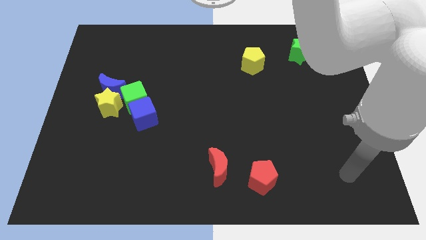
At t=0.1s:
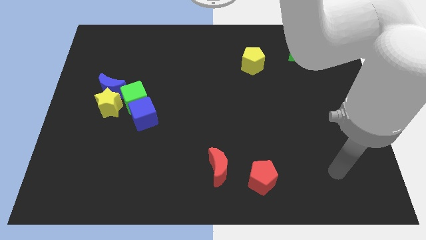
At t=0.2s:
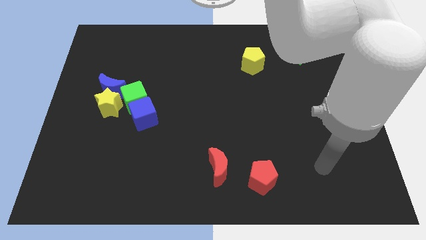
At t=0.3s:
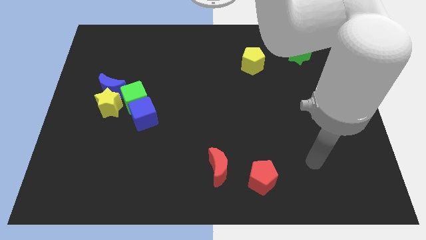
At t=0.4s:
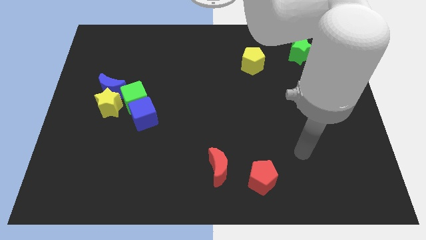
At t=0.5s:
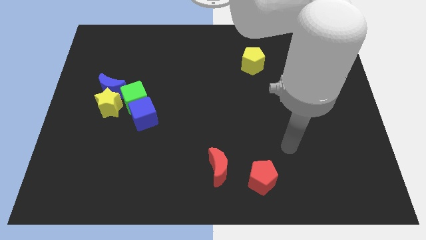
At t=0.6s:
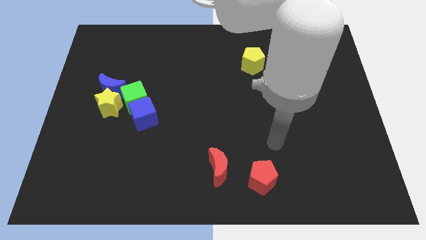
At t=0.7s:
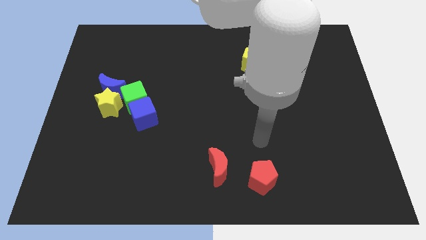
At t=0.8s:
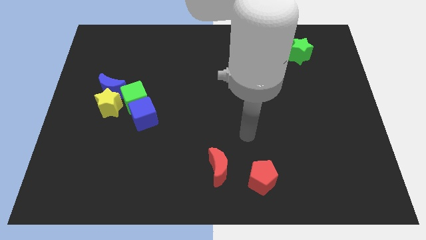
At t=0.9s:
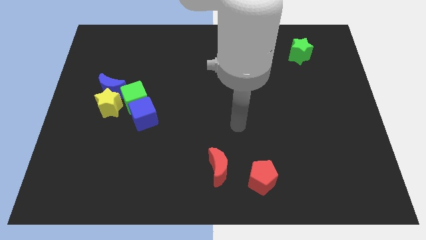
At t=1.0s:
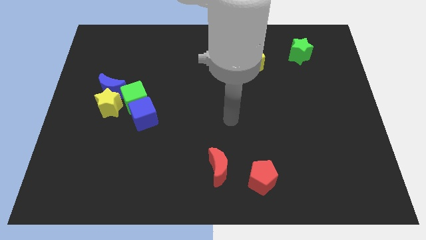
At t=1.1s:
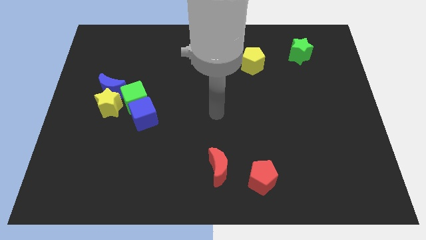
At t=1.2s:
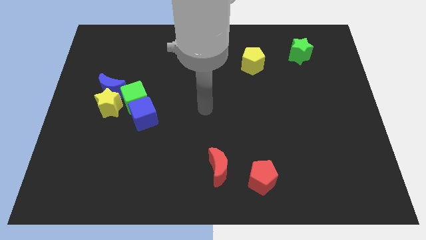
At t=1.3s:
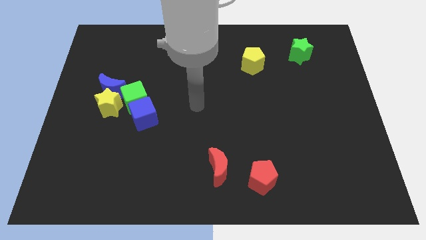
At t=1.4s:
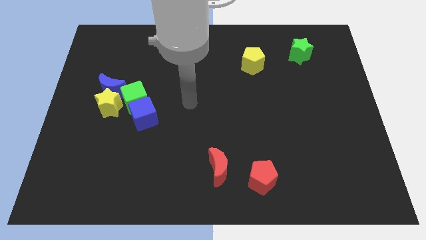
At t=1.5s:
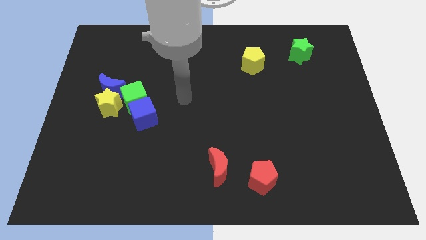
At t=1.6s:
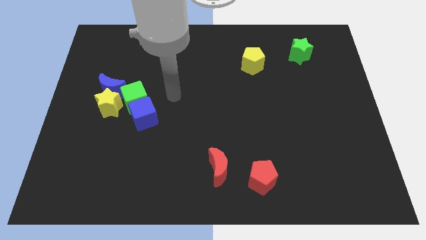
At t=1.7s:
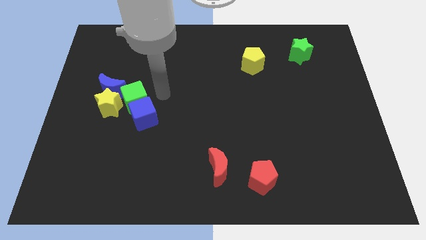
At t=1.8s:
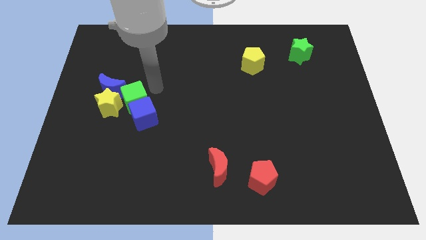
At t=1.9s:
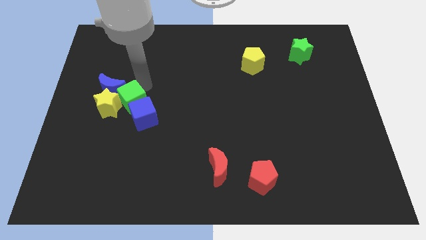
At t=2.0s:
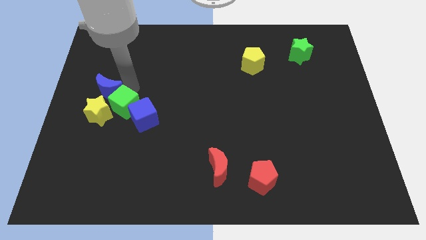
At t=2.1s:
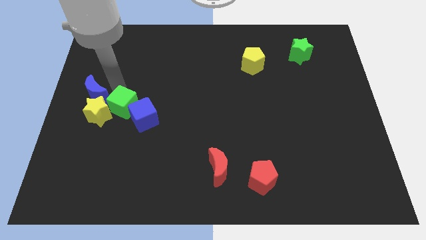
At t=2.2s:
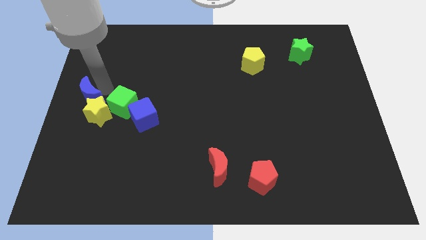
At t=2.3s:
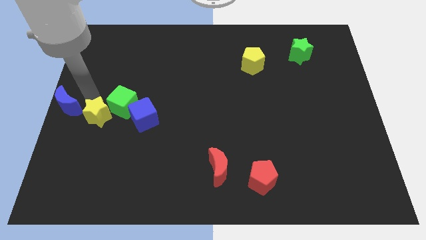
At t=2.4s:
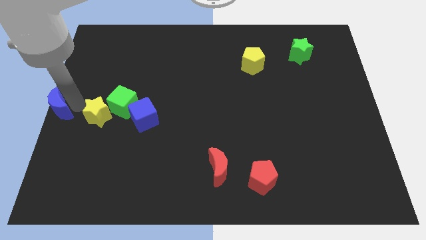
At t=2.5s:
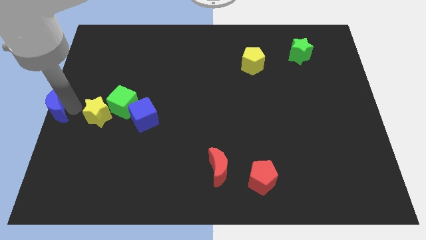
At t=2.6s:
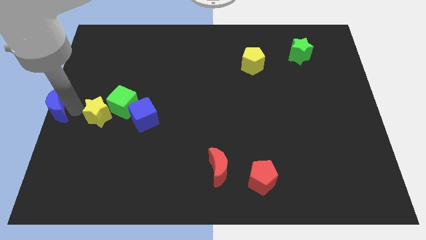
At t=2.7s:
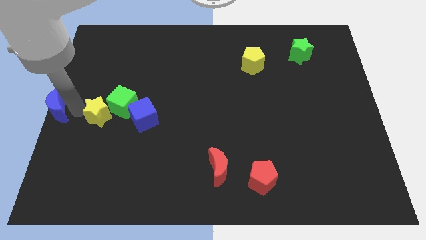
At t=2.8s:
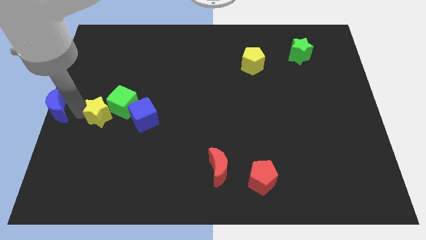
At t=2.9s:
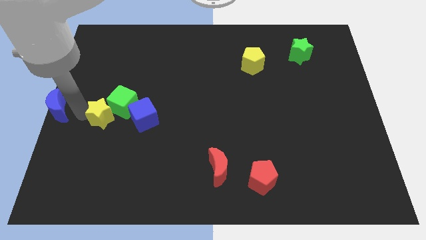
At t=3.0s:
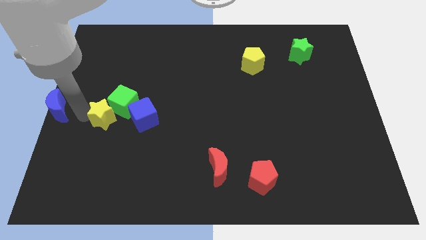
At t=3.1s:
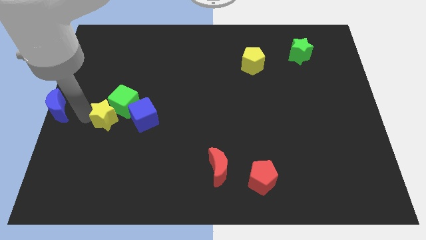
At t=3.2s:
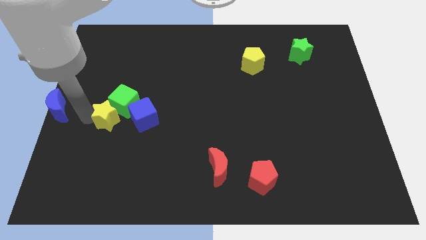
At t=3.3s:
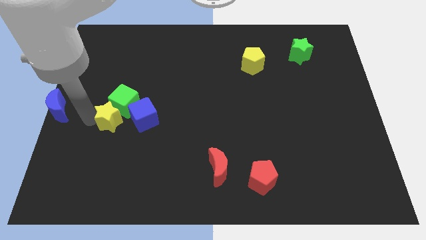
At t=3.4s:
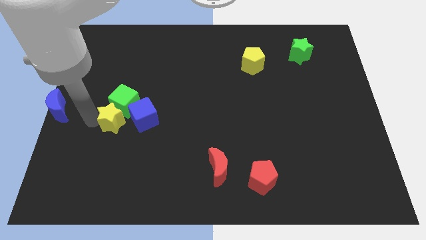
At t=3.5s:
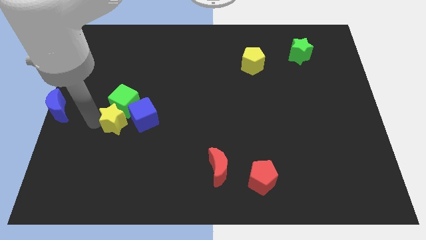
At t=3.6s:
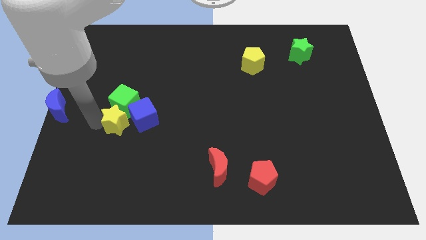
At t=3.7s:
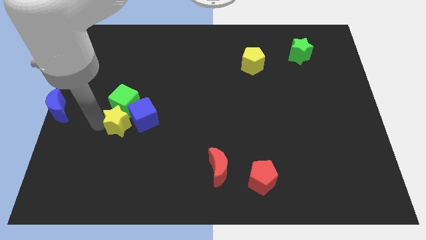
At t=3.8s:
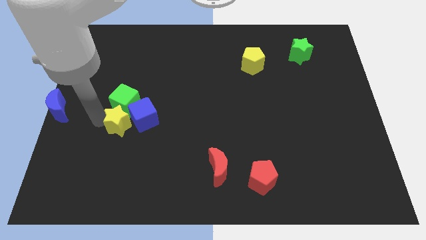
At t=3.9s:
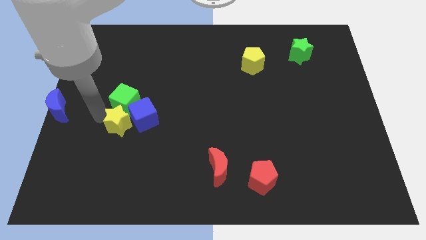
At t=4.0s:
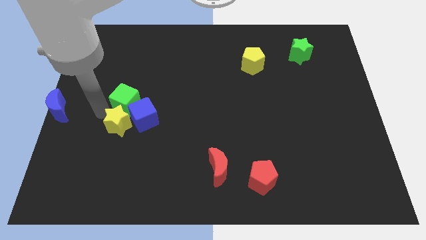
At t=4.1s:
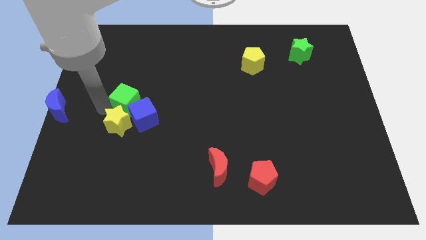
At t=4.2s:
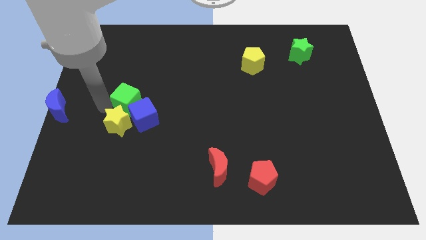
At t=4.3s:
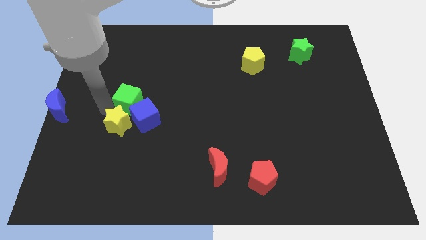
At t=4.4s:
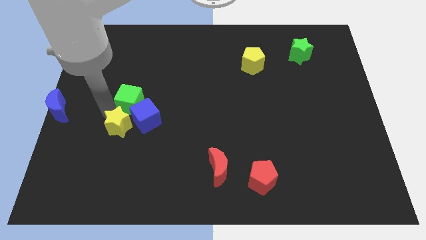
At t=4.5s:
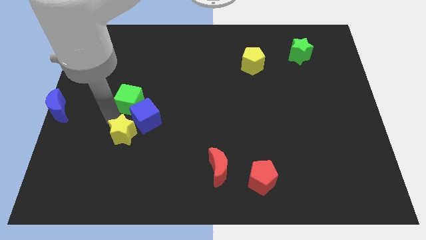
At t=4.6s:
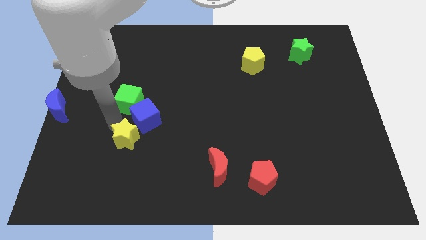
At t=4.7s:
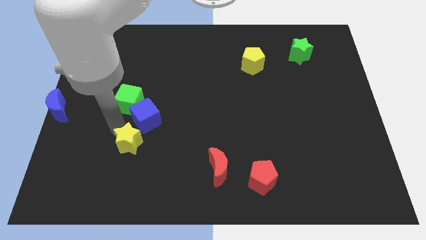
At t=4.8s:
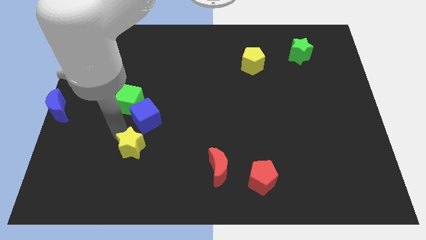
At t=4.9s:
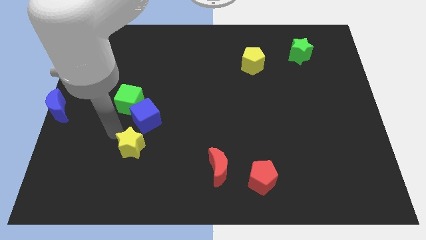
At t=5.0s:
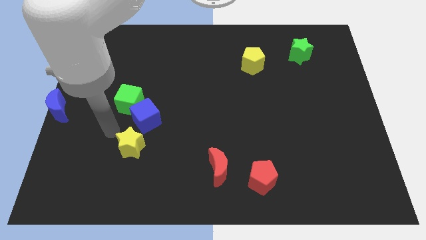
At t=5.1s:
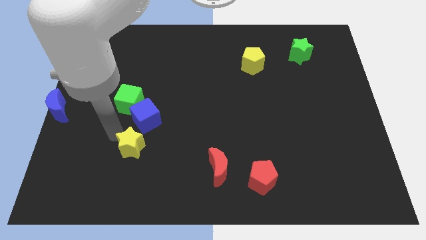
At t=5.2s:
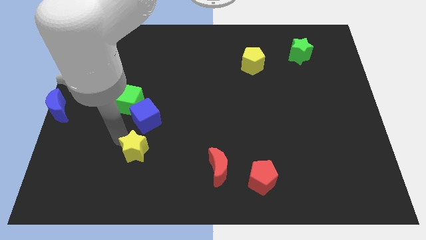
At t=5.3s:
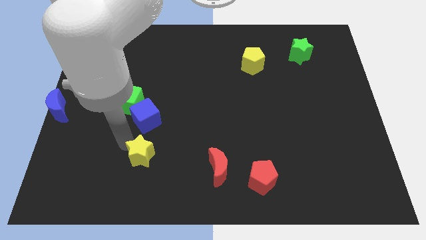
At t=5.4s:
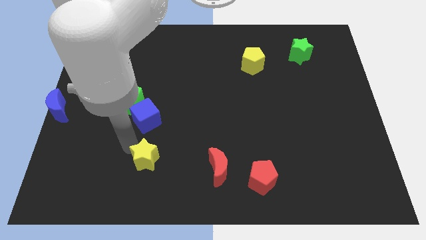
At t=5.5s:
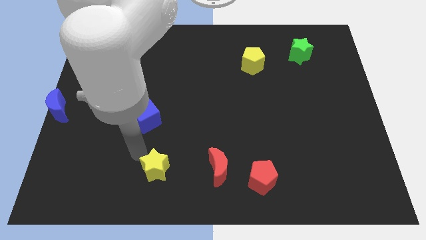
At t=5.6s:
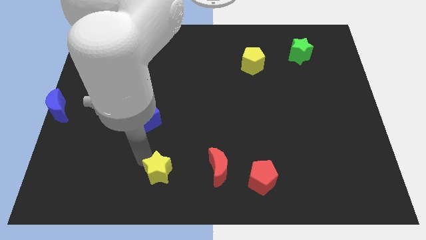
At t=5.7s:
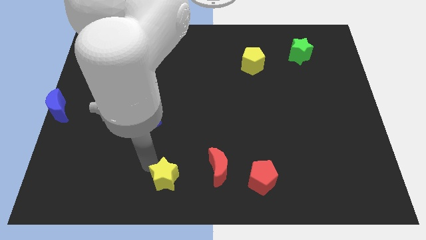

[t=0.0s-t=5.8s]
slide the yellow star to the bottom side

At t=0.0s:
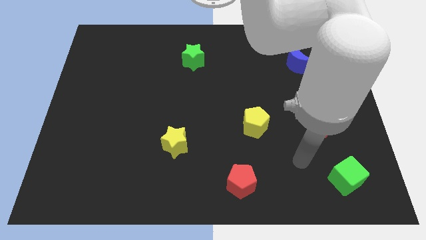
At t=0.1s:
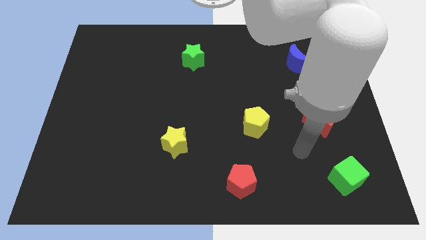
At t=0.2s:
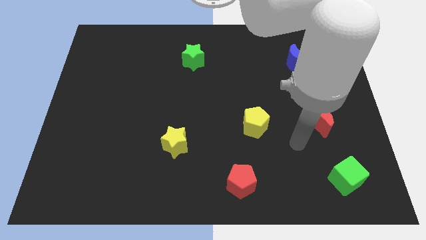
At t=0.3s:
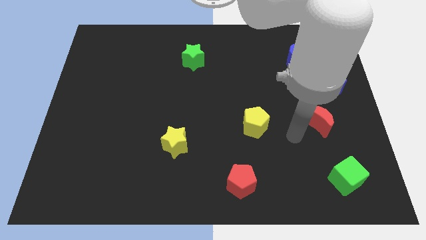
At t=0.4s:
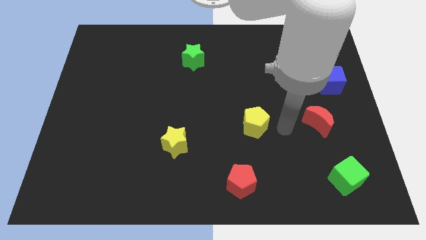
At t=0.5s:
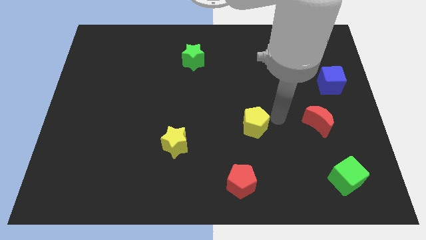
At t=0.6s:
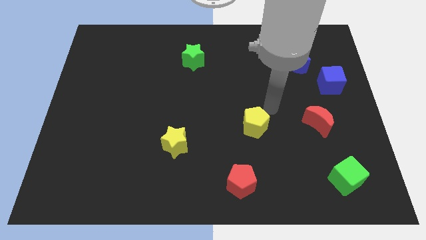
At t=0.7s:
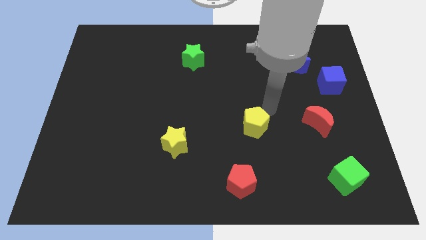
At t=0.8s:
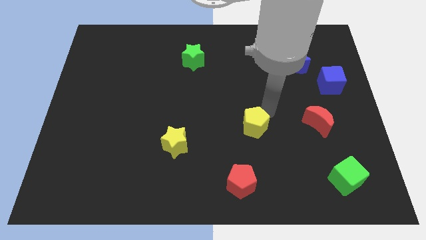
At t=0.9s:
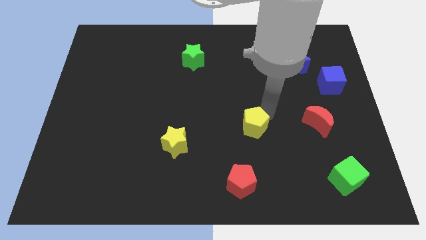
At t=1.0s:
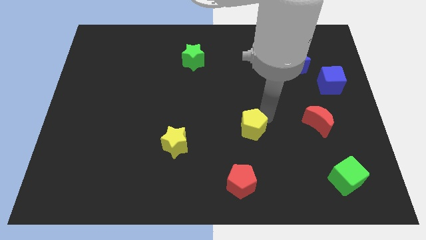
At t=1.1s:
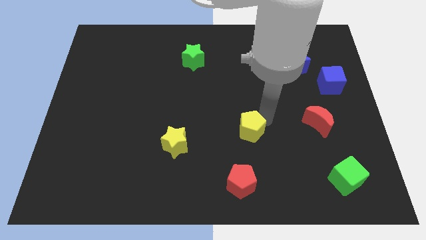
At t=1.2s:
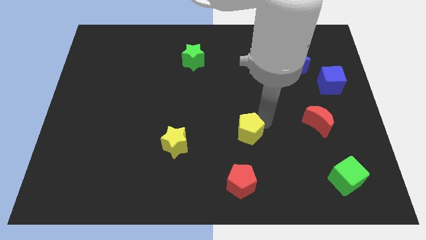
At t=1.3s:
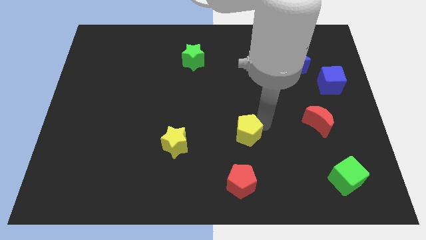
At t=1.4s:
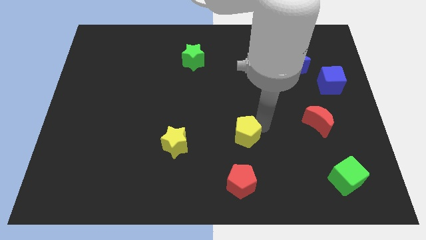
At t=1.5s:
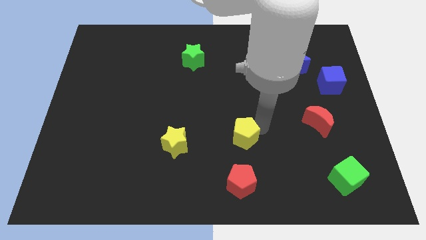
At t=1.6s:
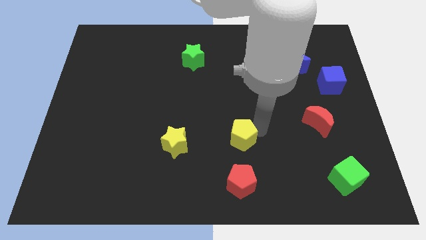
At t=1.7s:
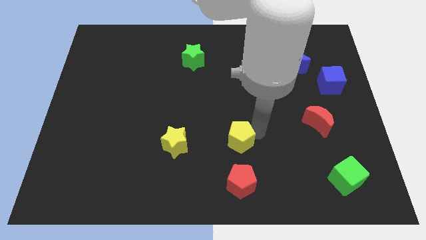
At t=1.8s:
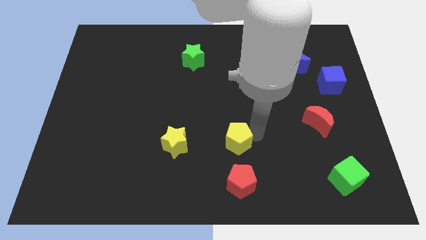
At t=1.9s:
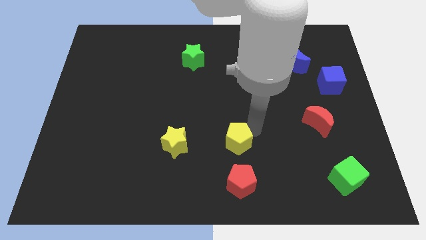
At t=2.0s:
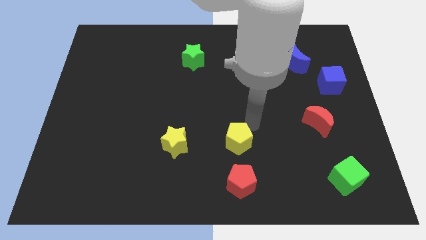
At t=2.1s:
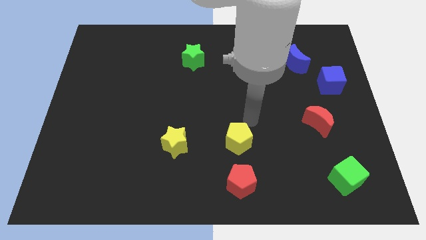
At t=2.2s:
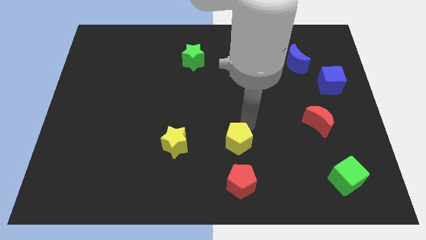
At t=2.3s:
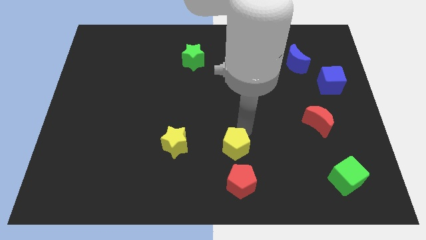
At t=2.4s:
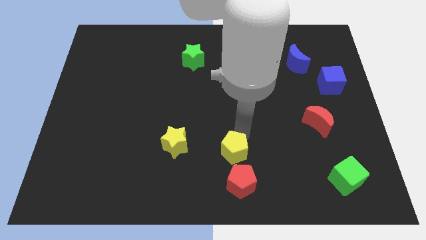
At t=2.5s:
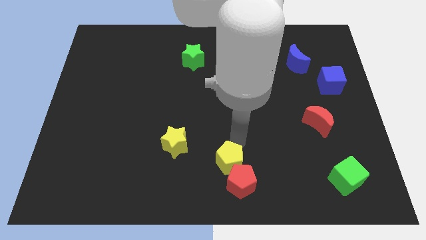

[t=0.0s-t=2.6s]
slide the yellow pentagon to the bottom side
